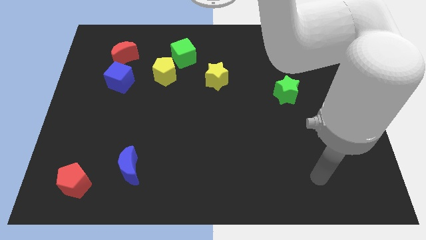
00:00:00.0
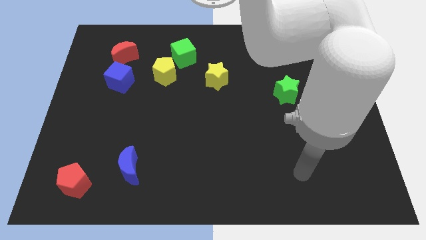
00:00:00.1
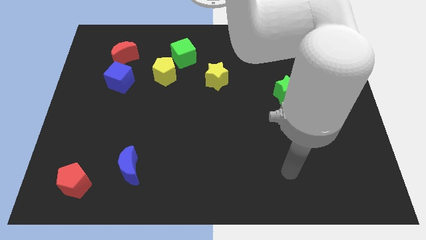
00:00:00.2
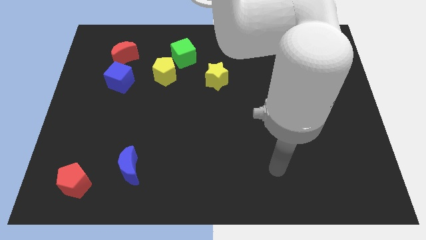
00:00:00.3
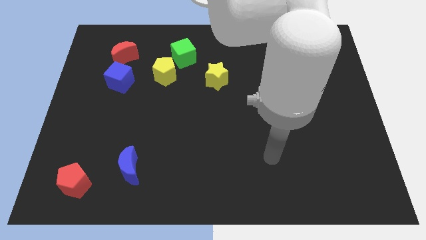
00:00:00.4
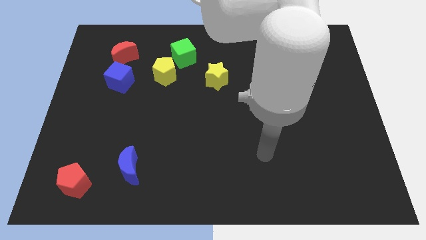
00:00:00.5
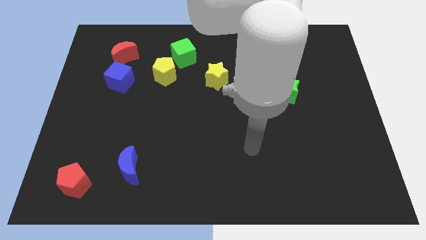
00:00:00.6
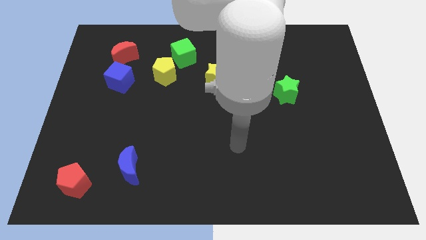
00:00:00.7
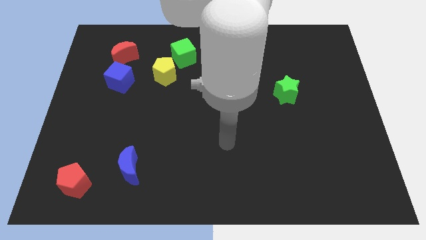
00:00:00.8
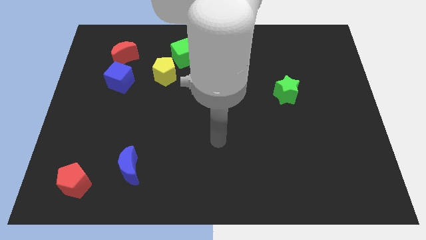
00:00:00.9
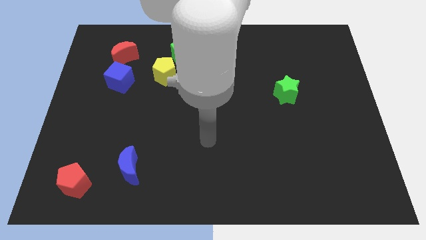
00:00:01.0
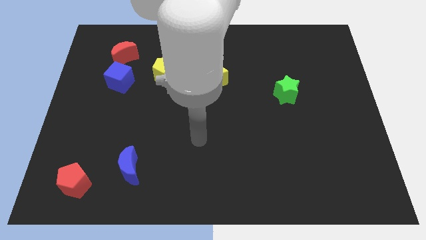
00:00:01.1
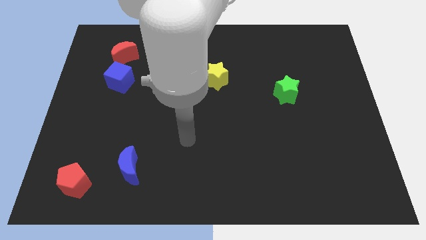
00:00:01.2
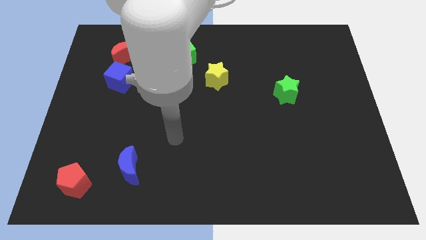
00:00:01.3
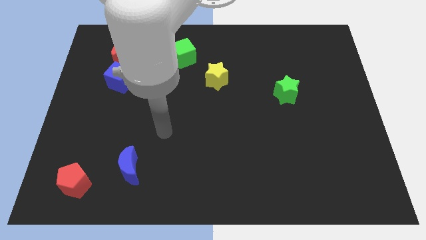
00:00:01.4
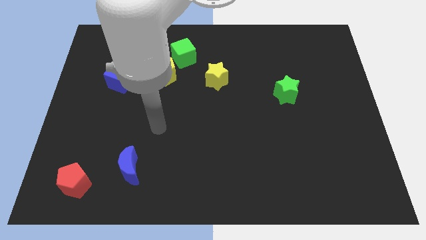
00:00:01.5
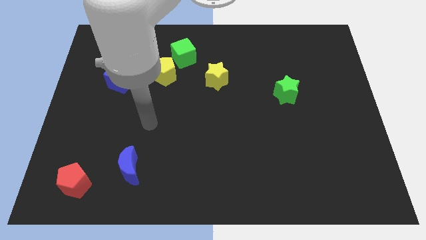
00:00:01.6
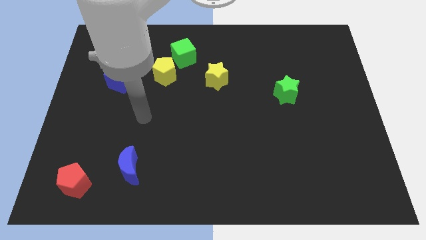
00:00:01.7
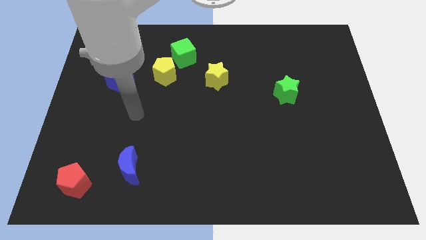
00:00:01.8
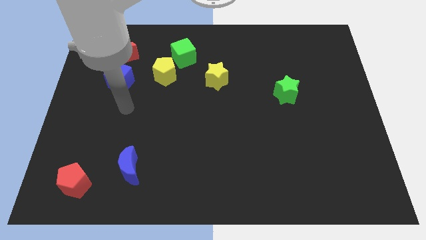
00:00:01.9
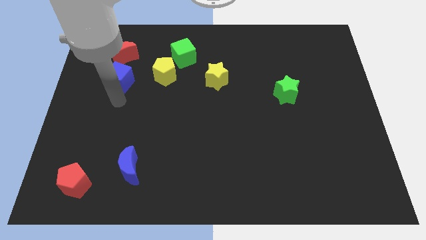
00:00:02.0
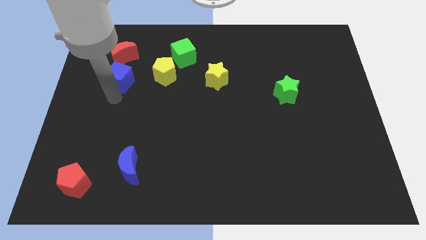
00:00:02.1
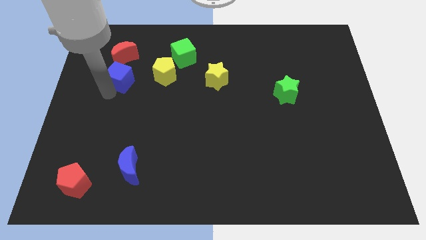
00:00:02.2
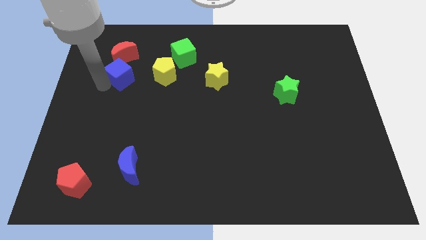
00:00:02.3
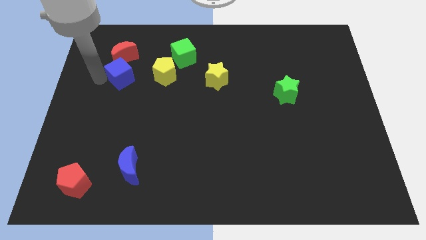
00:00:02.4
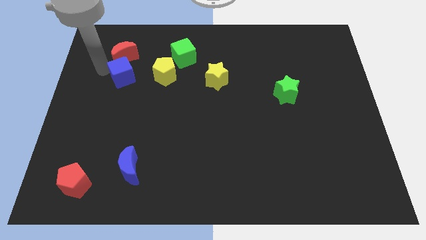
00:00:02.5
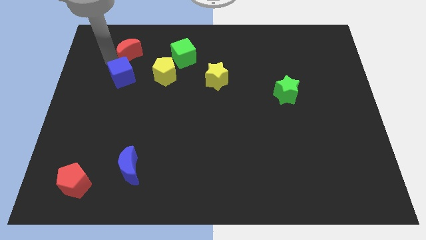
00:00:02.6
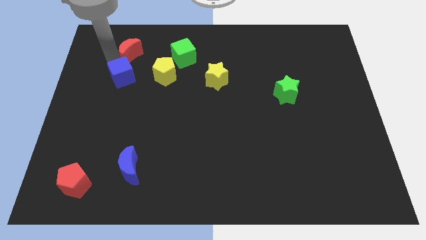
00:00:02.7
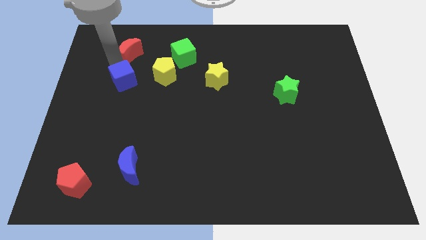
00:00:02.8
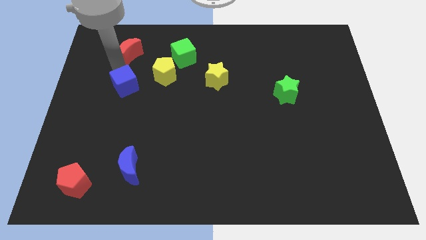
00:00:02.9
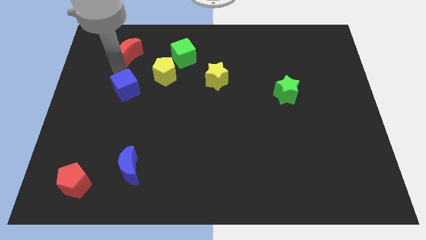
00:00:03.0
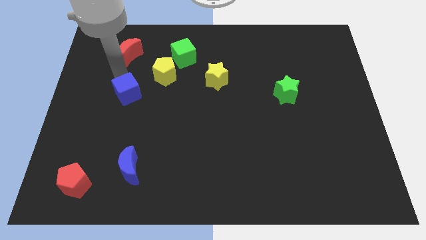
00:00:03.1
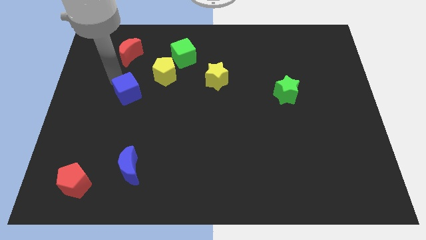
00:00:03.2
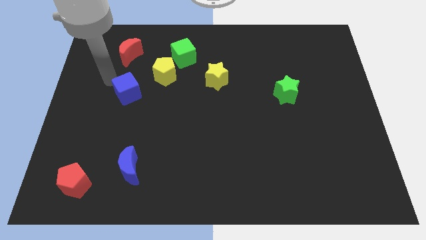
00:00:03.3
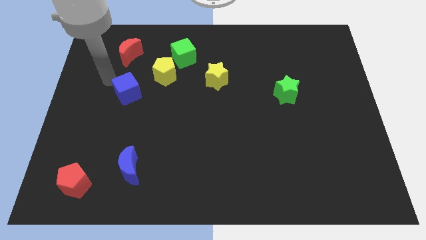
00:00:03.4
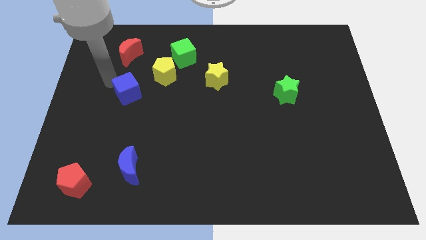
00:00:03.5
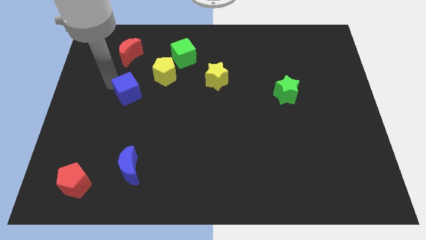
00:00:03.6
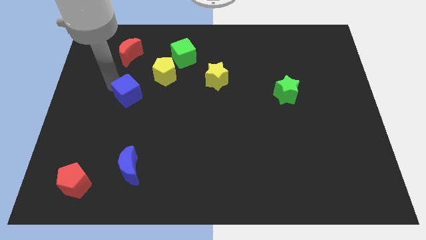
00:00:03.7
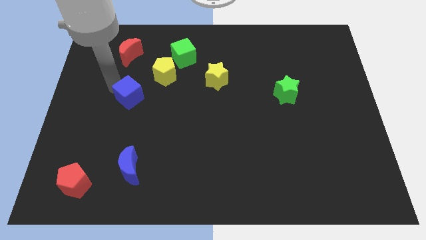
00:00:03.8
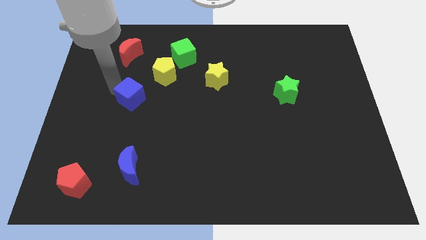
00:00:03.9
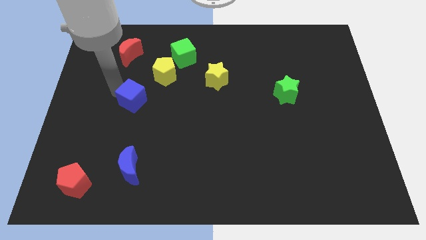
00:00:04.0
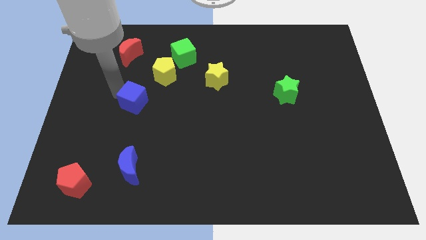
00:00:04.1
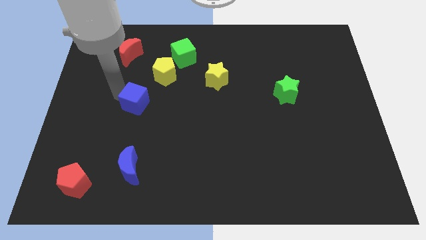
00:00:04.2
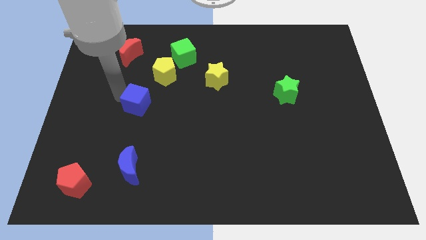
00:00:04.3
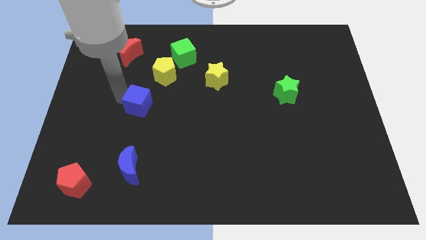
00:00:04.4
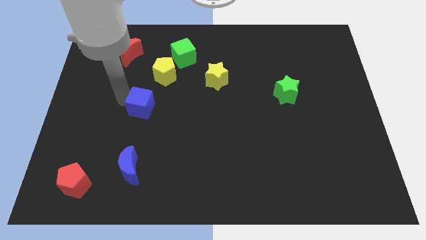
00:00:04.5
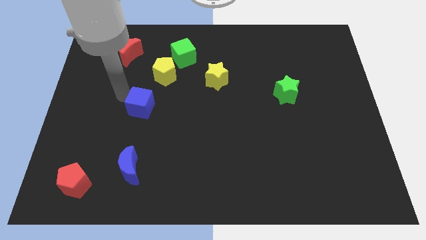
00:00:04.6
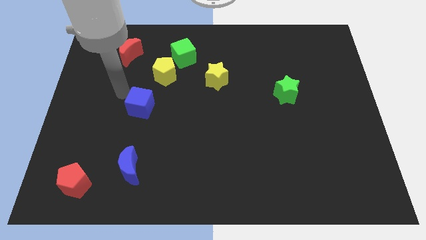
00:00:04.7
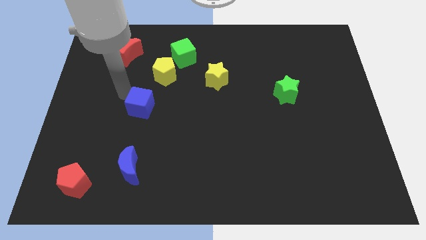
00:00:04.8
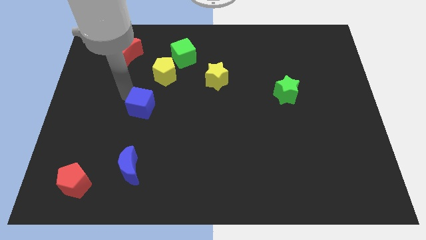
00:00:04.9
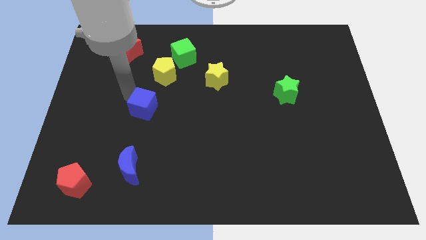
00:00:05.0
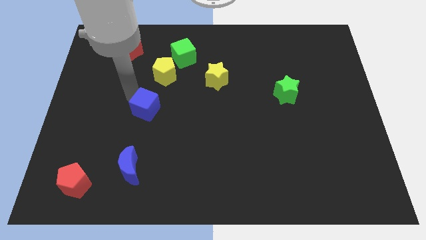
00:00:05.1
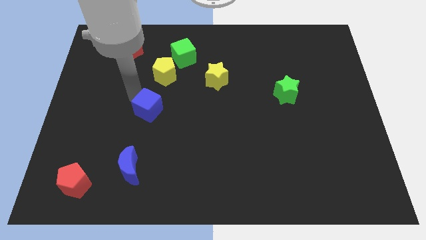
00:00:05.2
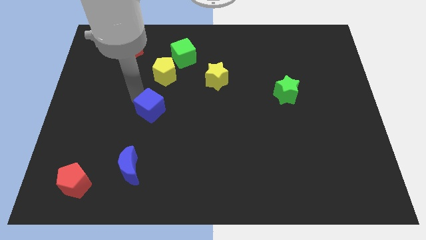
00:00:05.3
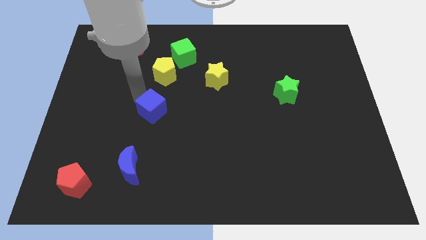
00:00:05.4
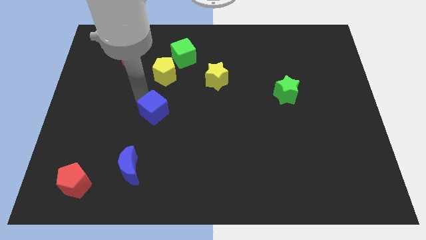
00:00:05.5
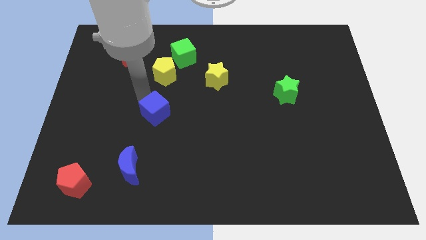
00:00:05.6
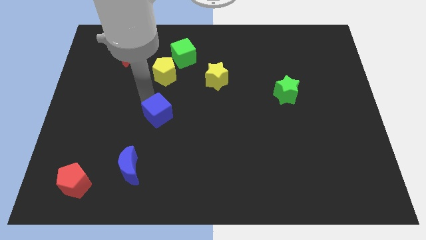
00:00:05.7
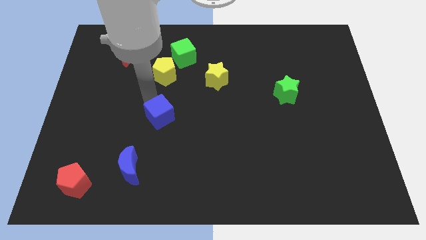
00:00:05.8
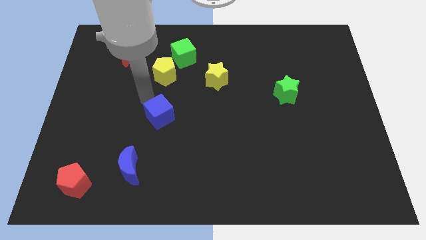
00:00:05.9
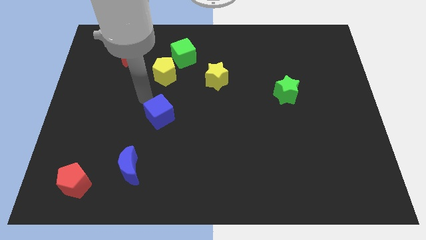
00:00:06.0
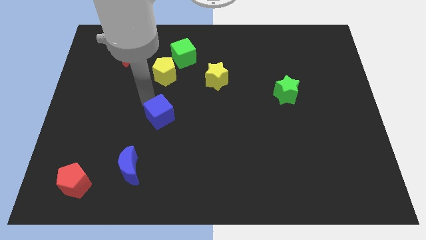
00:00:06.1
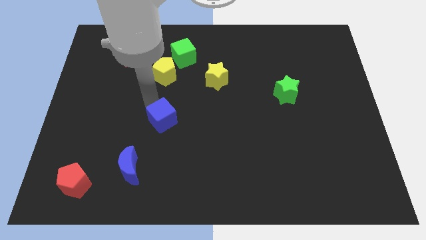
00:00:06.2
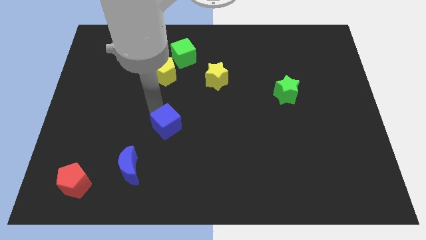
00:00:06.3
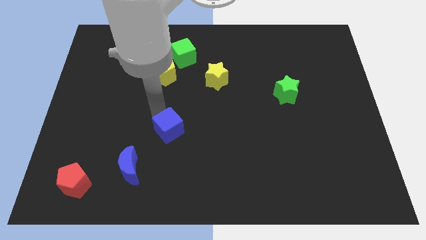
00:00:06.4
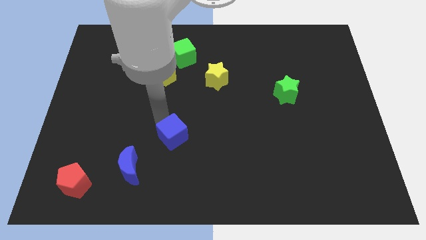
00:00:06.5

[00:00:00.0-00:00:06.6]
push the blue cube down and right diagonally

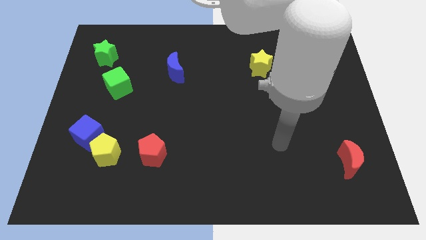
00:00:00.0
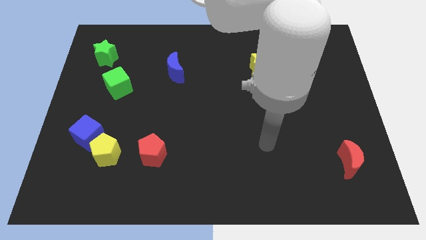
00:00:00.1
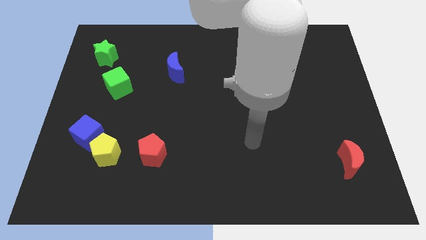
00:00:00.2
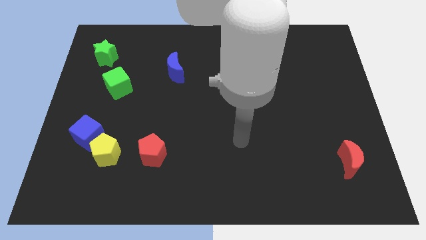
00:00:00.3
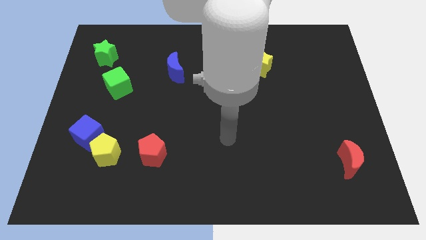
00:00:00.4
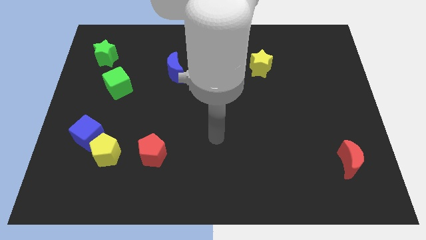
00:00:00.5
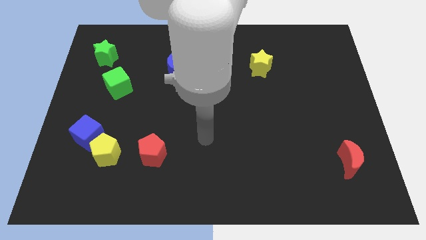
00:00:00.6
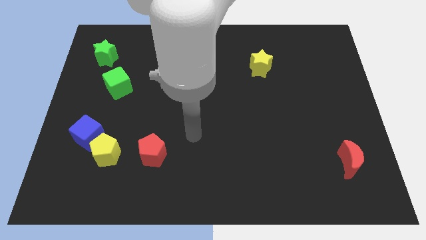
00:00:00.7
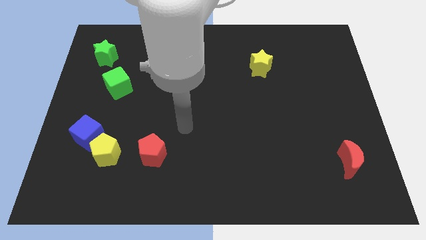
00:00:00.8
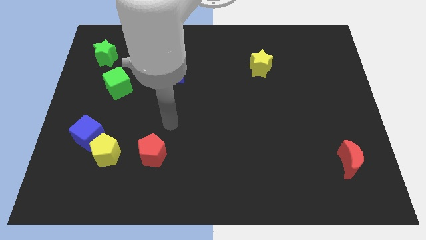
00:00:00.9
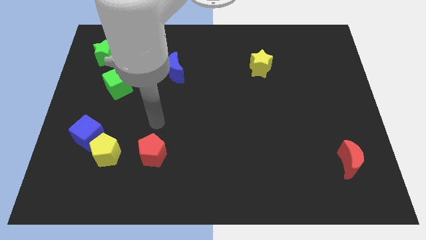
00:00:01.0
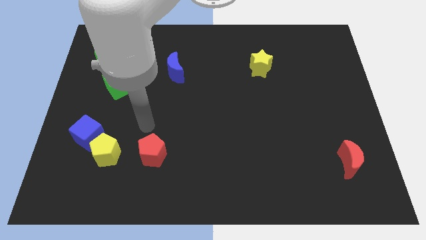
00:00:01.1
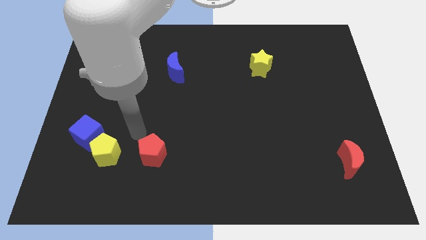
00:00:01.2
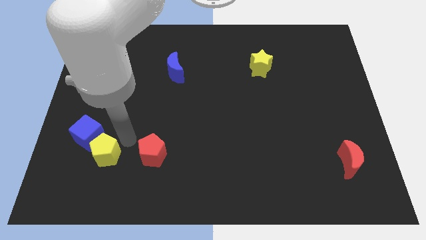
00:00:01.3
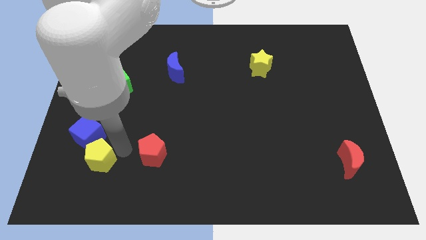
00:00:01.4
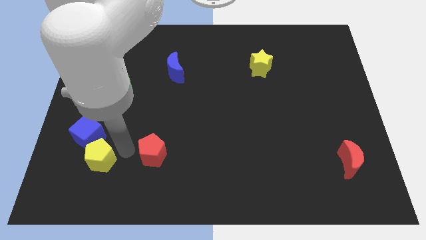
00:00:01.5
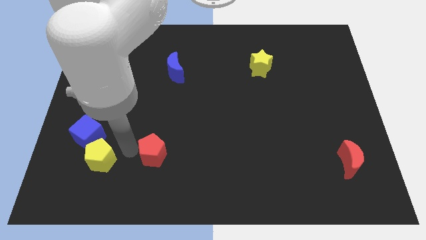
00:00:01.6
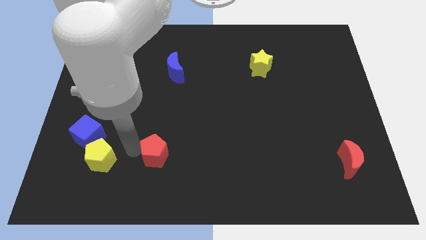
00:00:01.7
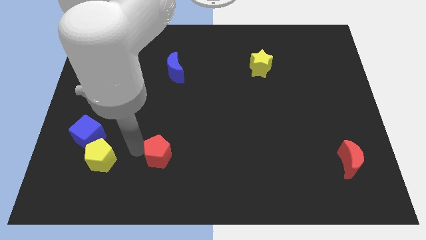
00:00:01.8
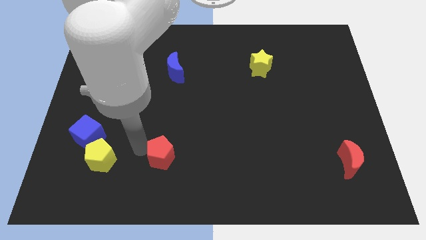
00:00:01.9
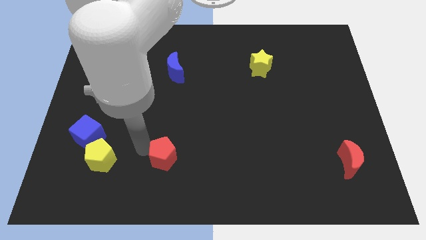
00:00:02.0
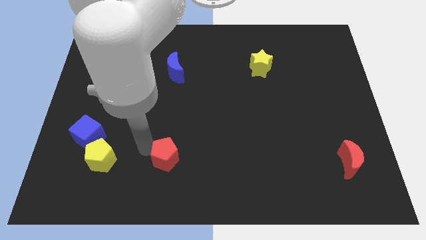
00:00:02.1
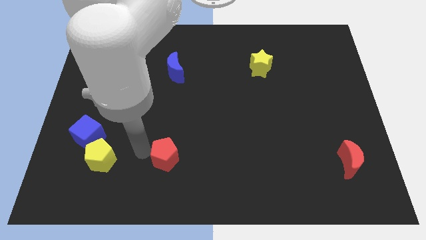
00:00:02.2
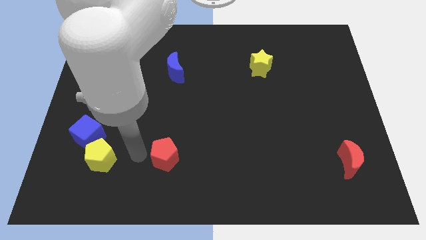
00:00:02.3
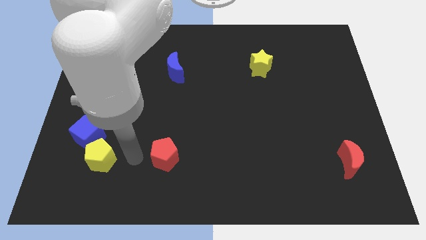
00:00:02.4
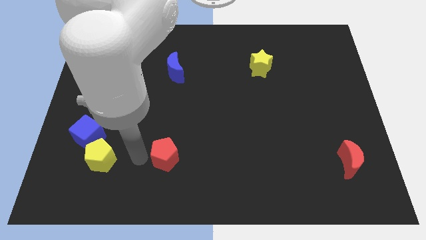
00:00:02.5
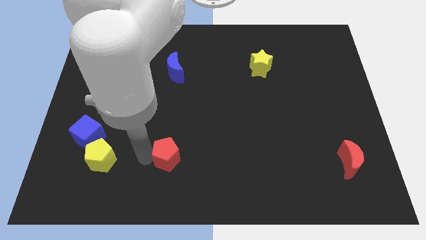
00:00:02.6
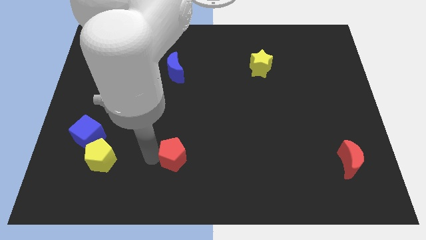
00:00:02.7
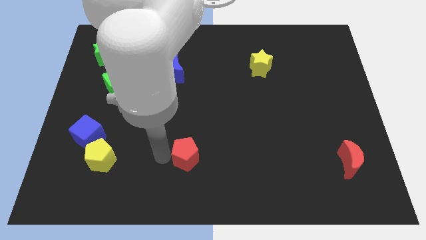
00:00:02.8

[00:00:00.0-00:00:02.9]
move the red pentagon right a little
